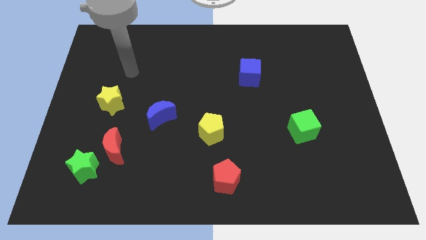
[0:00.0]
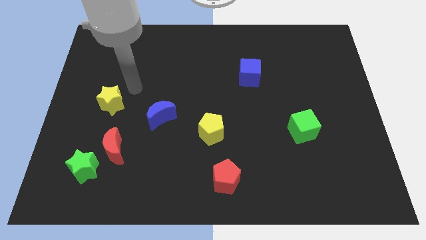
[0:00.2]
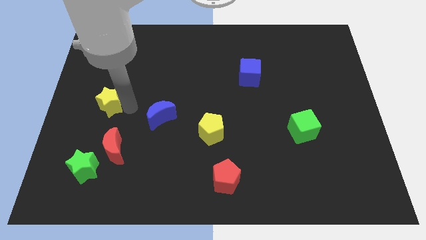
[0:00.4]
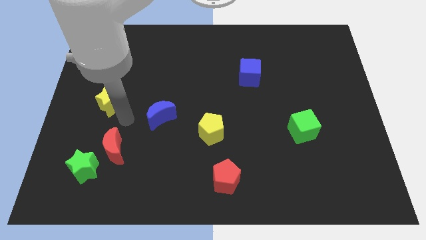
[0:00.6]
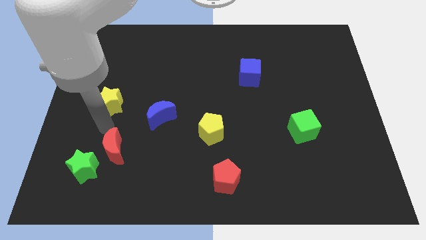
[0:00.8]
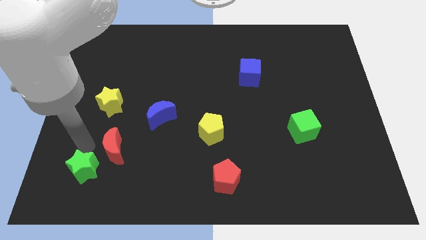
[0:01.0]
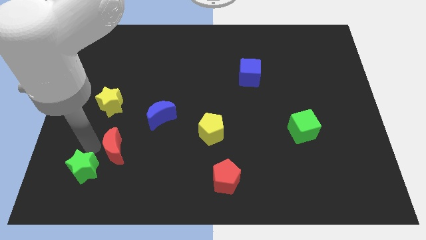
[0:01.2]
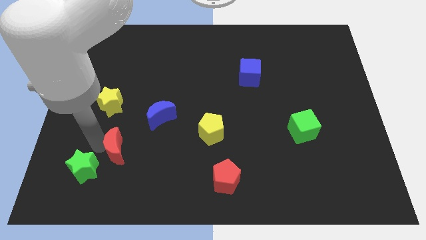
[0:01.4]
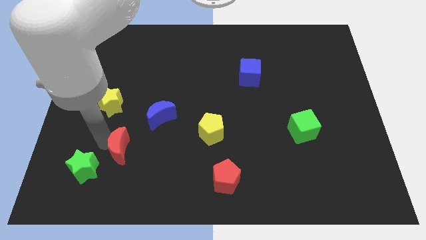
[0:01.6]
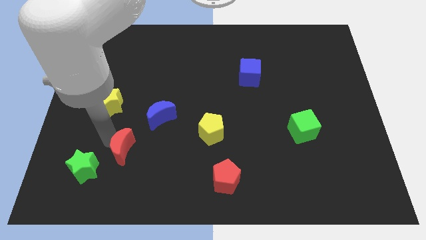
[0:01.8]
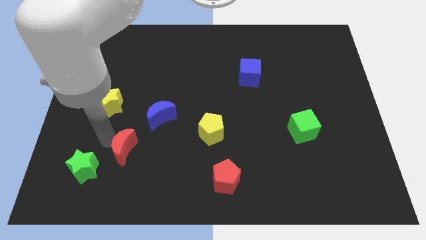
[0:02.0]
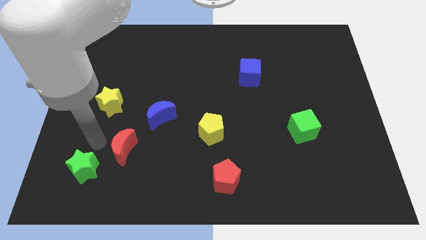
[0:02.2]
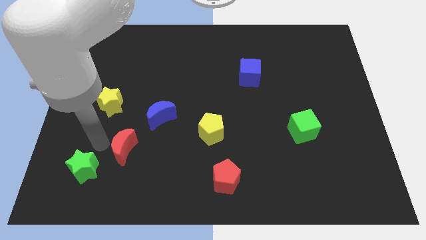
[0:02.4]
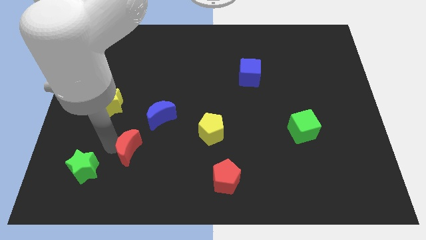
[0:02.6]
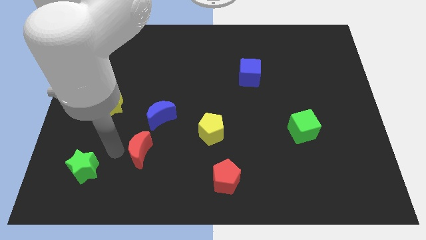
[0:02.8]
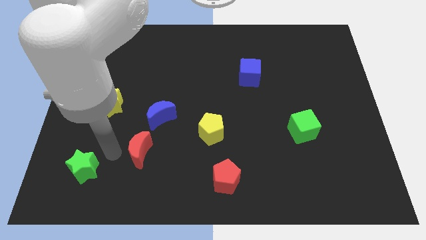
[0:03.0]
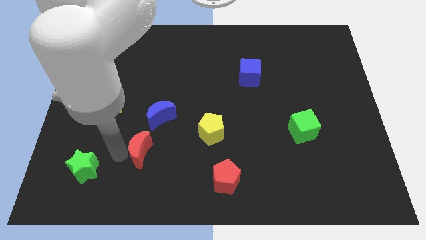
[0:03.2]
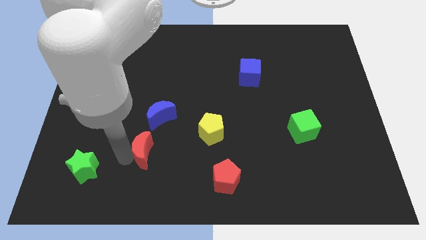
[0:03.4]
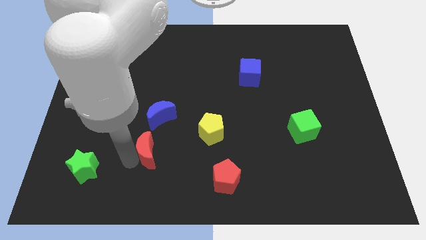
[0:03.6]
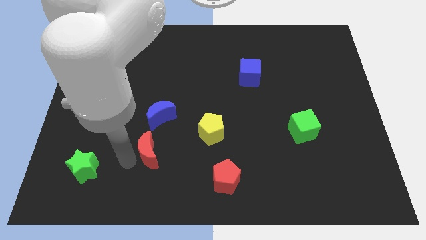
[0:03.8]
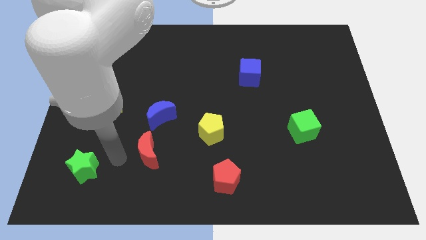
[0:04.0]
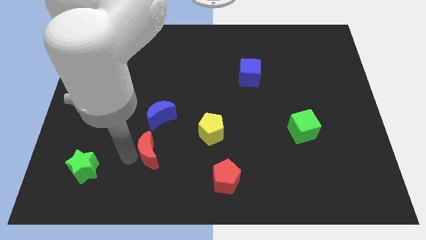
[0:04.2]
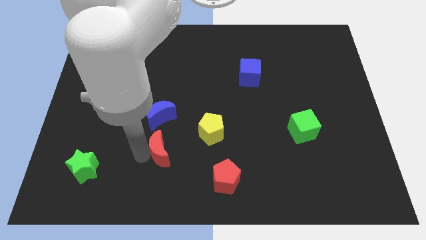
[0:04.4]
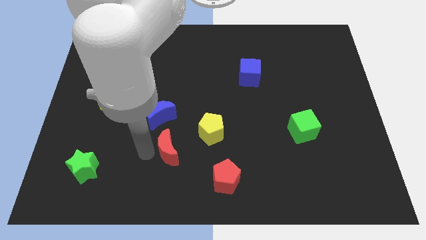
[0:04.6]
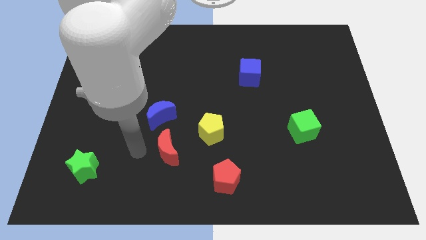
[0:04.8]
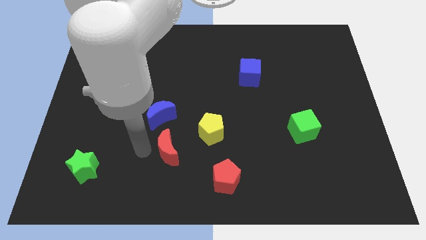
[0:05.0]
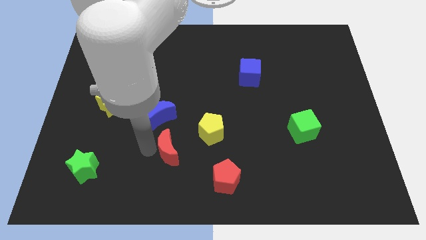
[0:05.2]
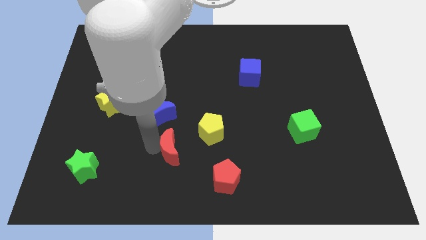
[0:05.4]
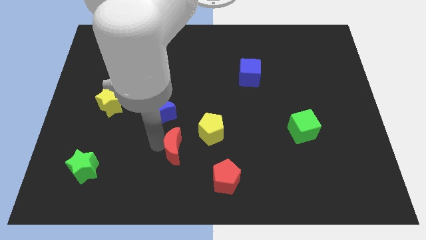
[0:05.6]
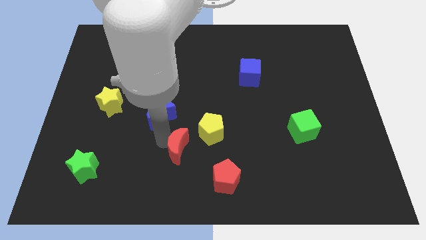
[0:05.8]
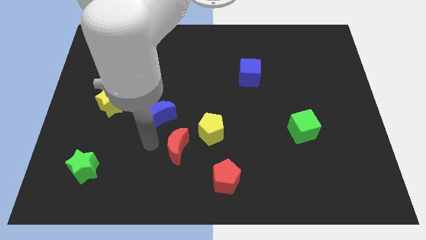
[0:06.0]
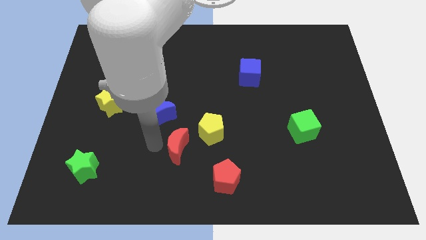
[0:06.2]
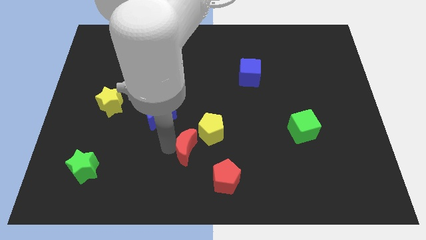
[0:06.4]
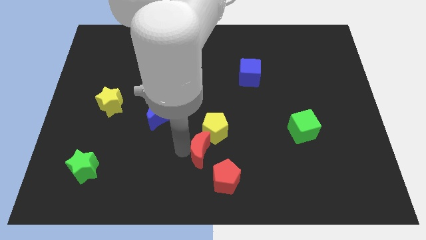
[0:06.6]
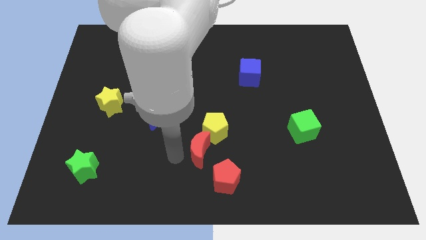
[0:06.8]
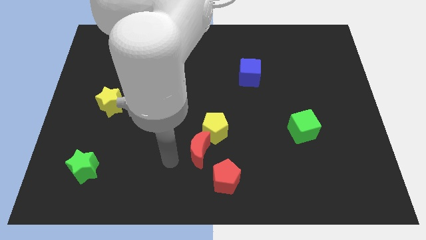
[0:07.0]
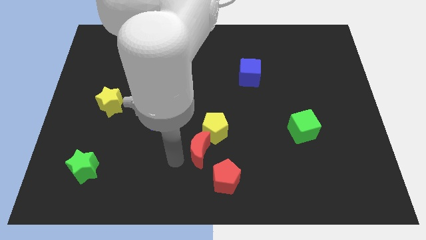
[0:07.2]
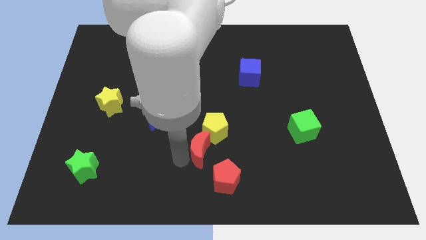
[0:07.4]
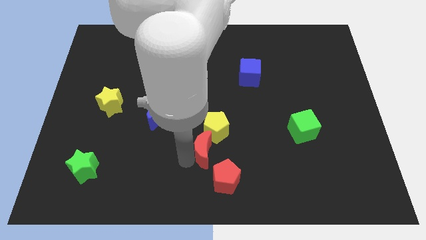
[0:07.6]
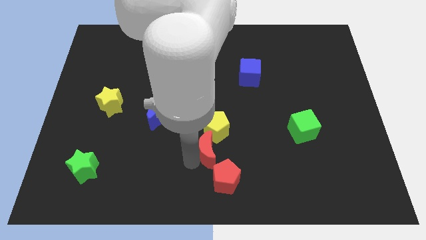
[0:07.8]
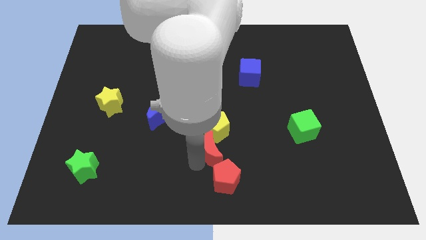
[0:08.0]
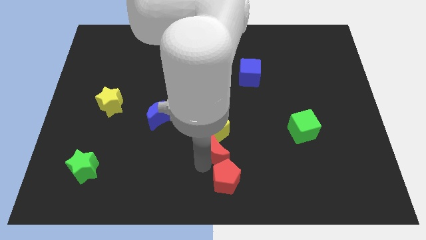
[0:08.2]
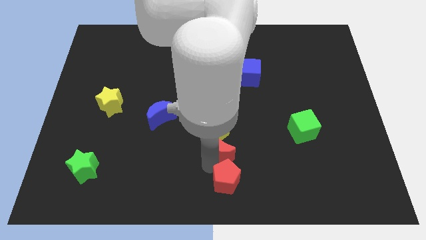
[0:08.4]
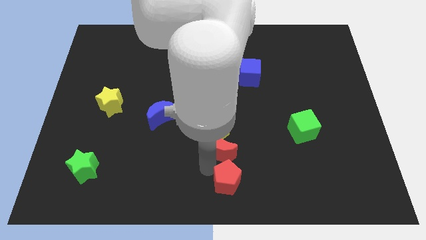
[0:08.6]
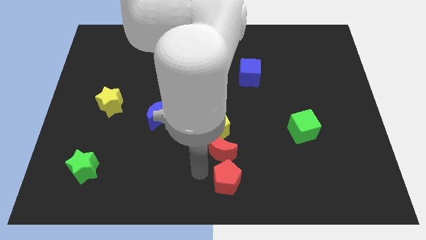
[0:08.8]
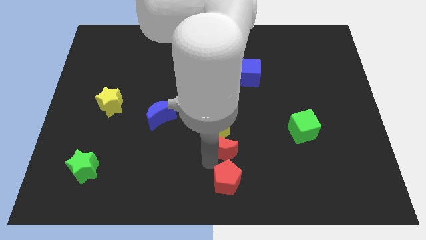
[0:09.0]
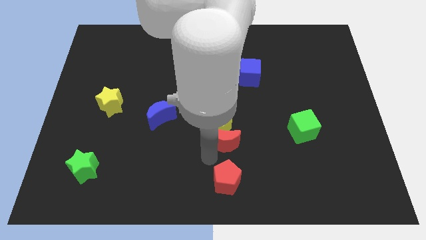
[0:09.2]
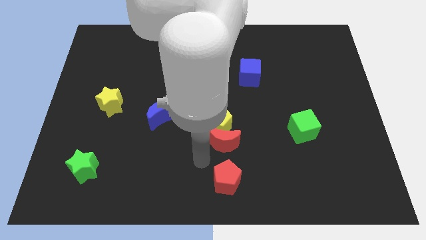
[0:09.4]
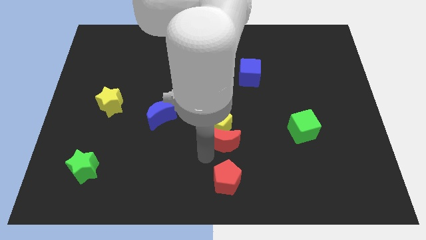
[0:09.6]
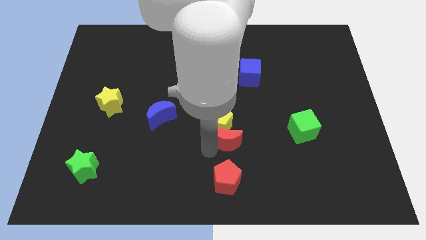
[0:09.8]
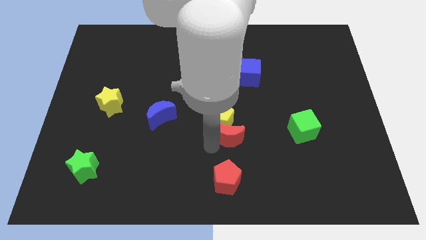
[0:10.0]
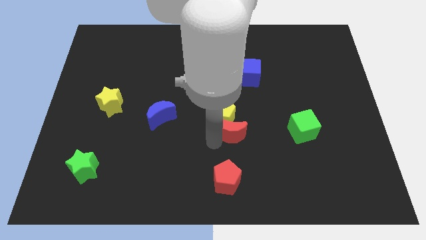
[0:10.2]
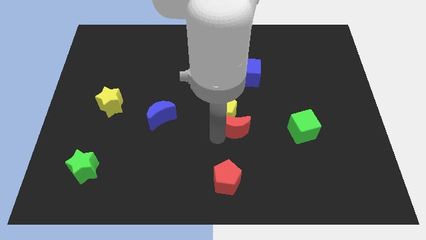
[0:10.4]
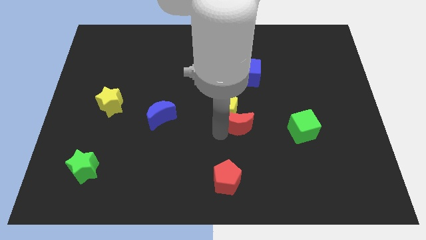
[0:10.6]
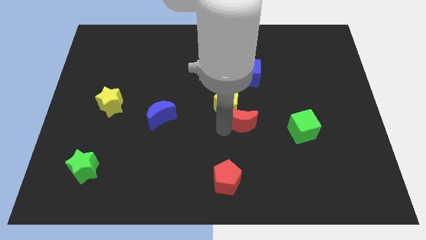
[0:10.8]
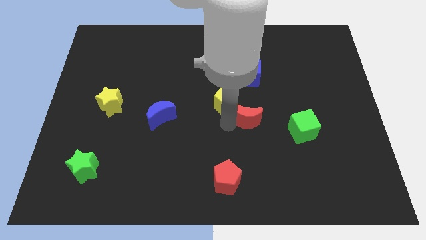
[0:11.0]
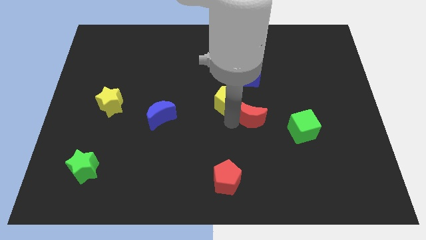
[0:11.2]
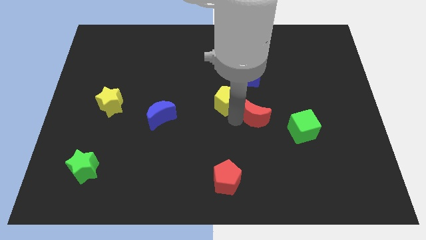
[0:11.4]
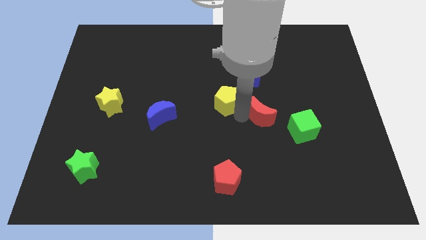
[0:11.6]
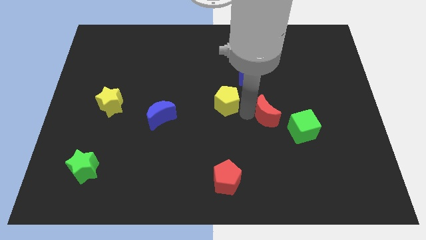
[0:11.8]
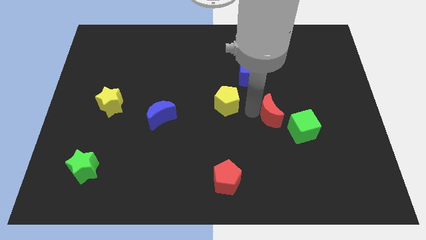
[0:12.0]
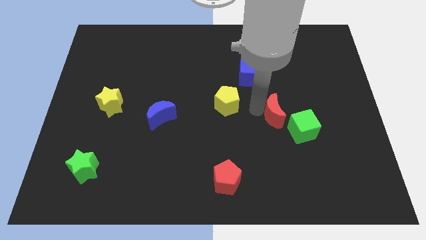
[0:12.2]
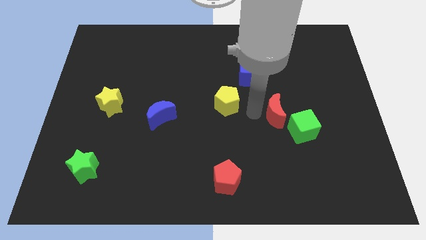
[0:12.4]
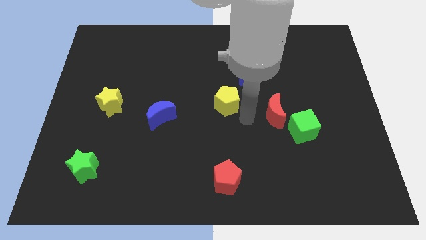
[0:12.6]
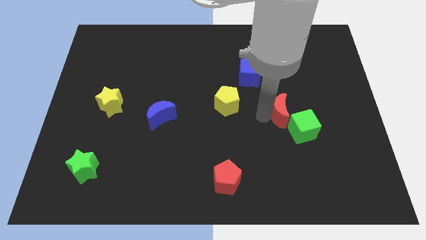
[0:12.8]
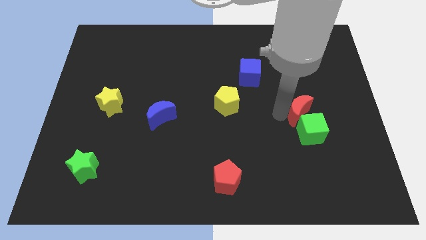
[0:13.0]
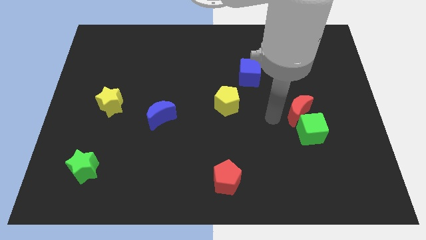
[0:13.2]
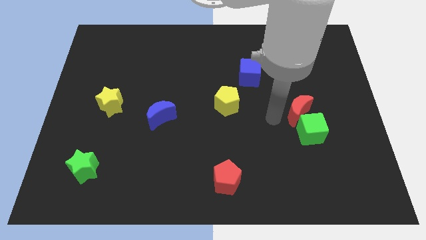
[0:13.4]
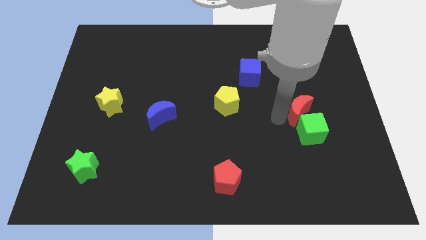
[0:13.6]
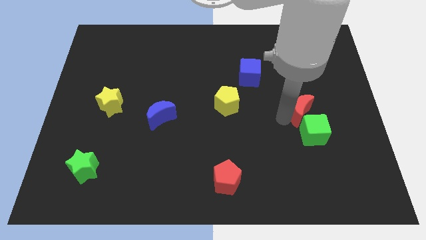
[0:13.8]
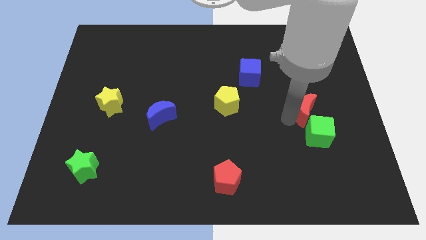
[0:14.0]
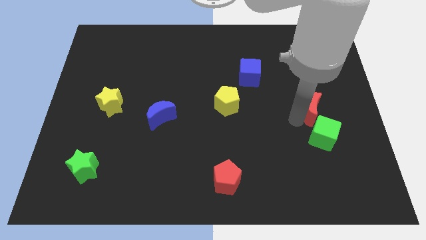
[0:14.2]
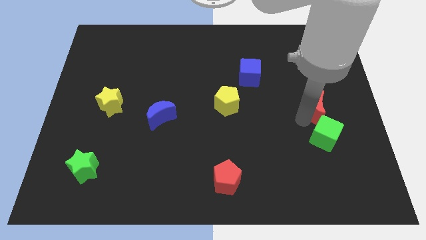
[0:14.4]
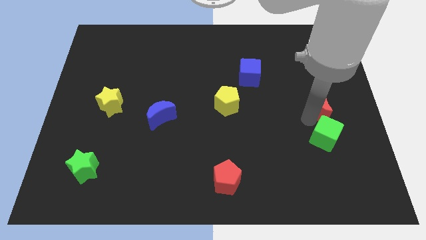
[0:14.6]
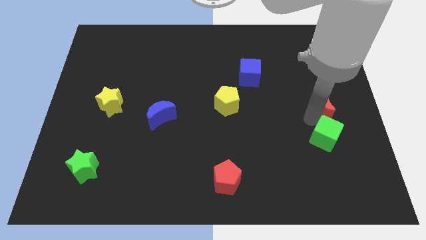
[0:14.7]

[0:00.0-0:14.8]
move the red moon to the right side of the board
